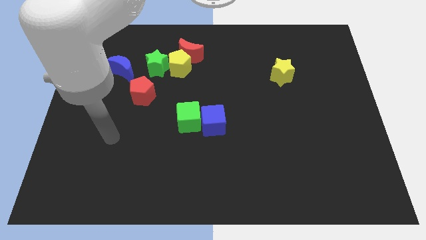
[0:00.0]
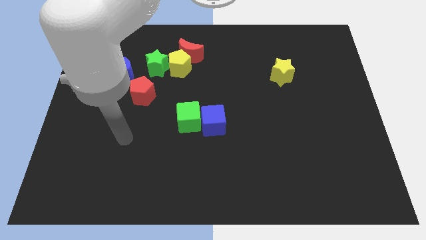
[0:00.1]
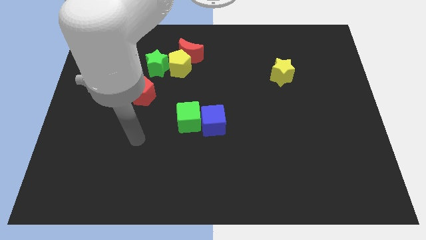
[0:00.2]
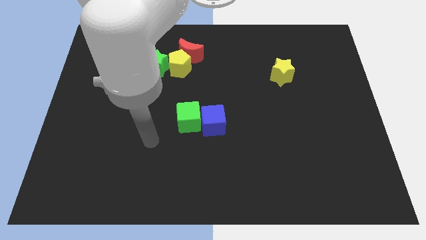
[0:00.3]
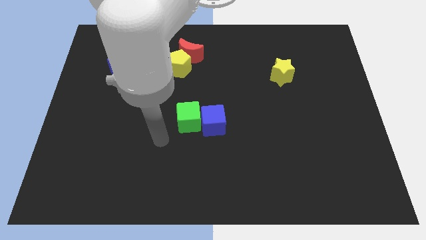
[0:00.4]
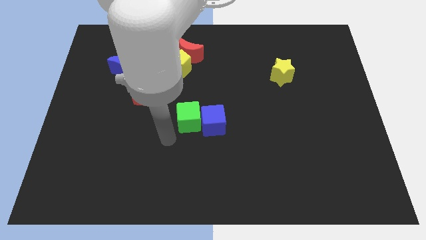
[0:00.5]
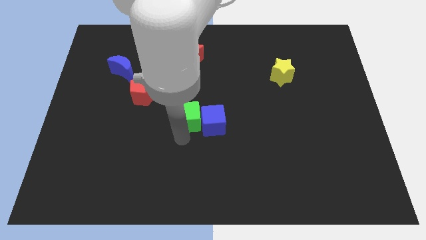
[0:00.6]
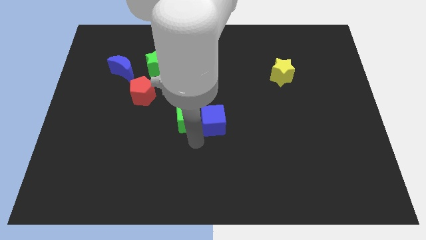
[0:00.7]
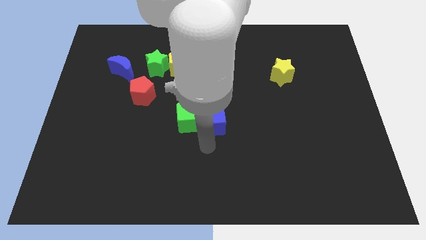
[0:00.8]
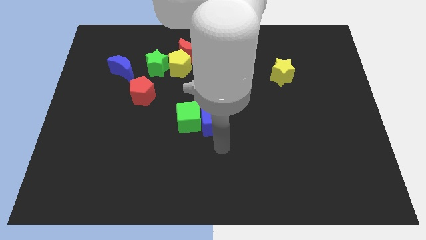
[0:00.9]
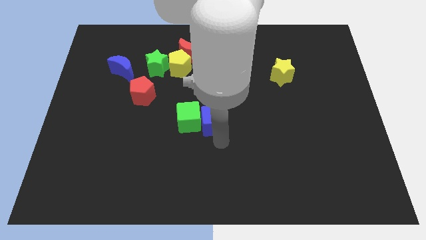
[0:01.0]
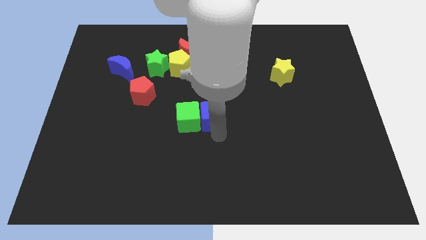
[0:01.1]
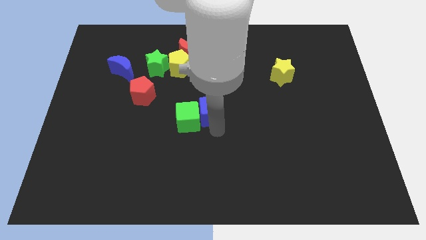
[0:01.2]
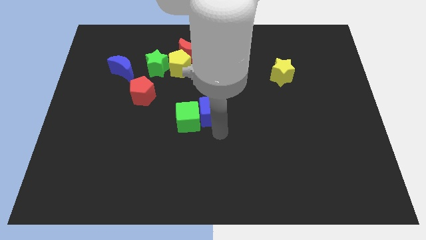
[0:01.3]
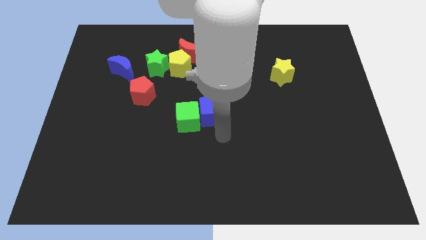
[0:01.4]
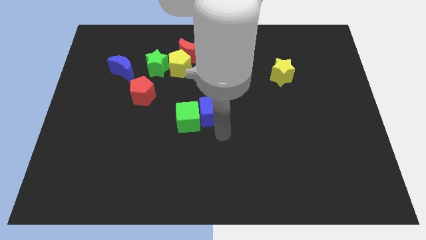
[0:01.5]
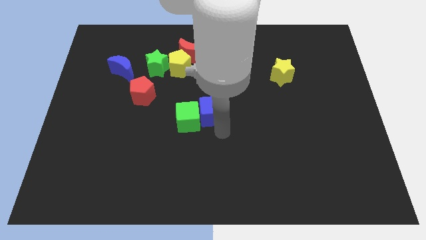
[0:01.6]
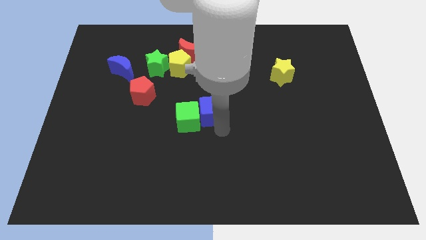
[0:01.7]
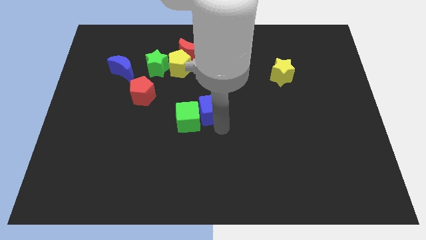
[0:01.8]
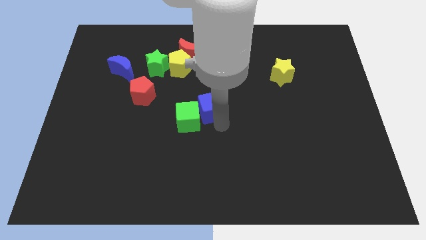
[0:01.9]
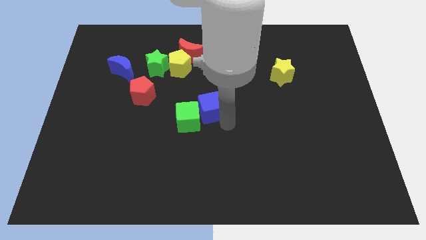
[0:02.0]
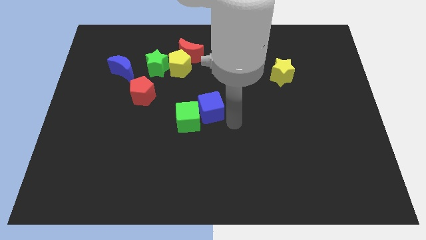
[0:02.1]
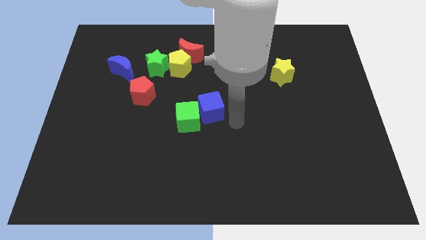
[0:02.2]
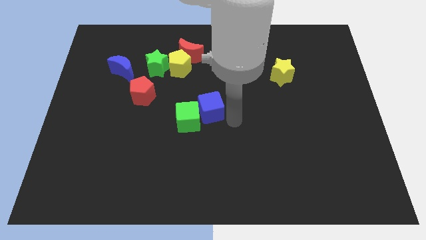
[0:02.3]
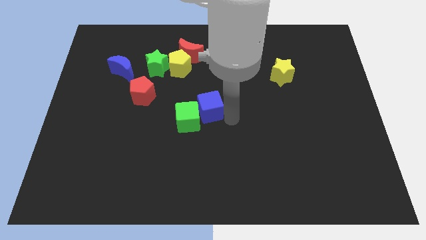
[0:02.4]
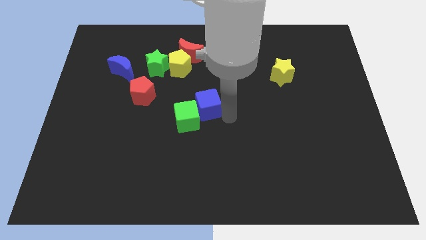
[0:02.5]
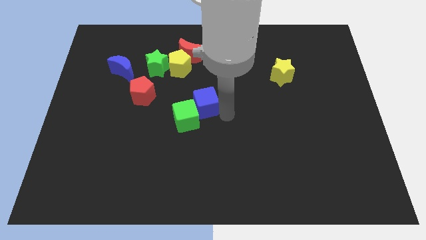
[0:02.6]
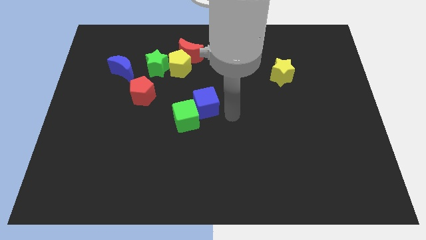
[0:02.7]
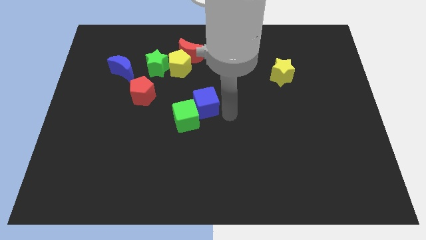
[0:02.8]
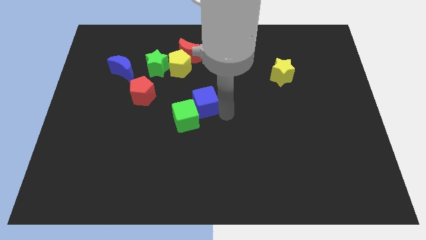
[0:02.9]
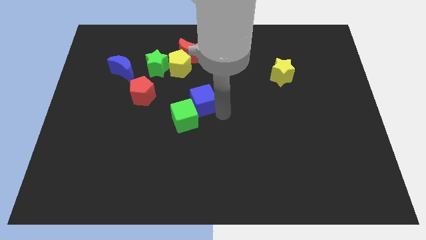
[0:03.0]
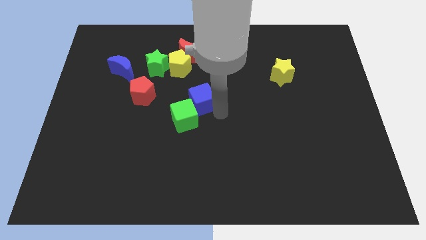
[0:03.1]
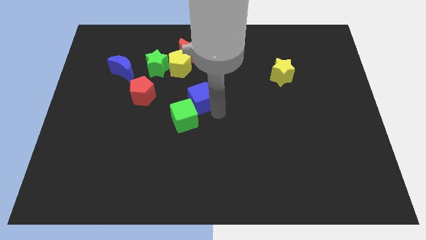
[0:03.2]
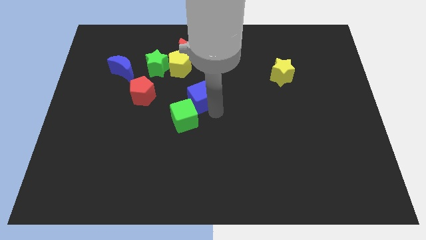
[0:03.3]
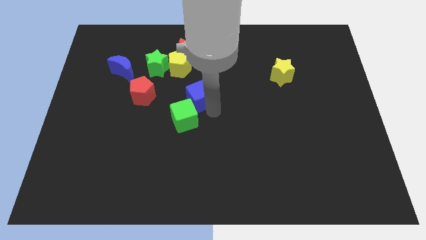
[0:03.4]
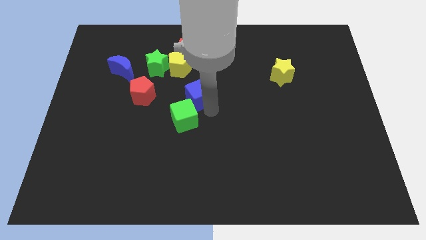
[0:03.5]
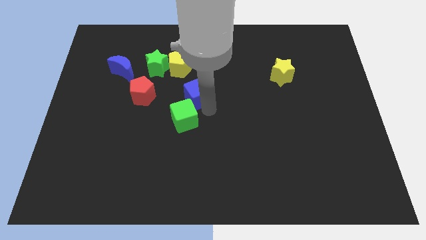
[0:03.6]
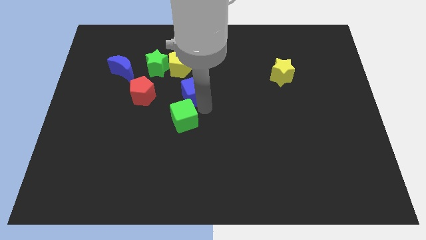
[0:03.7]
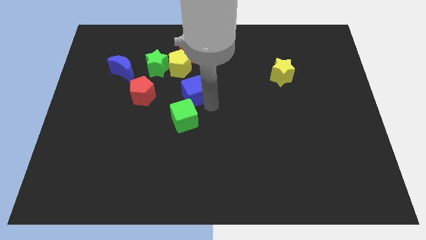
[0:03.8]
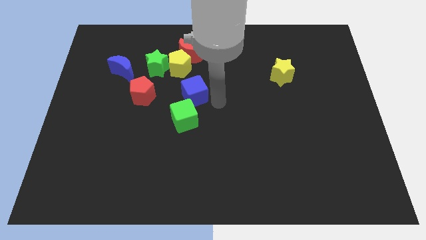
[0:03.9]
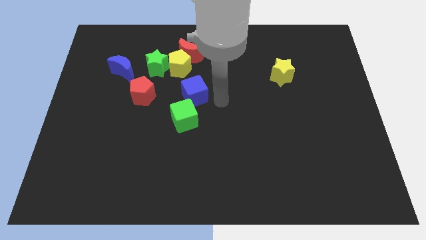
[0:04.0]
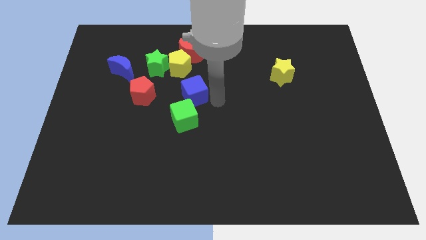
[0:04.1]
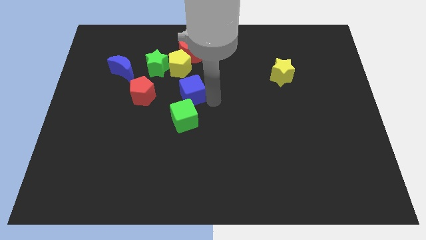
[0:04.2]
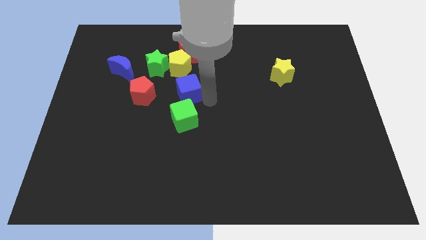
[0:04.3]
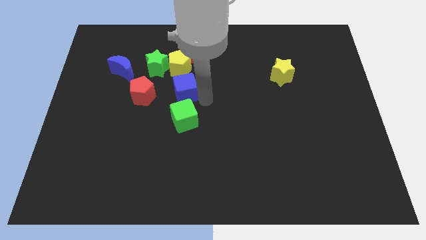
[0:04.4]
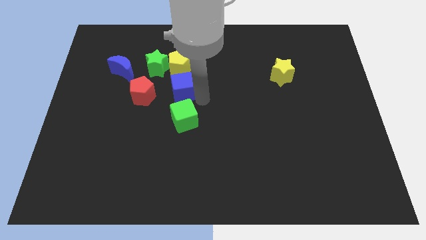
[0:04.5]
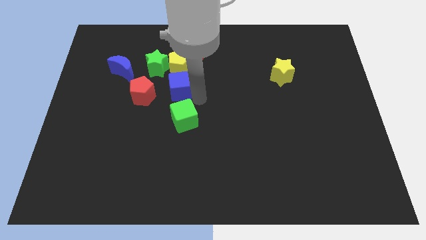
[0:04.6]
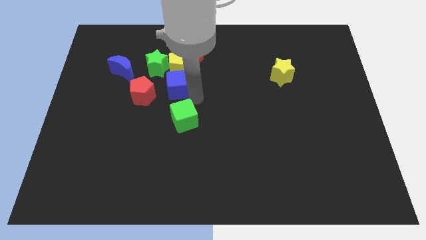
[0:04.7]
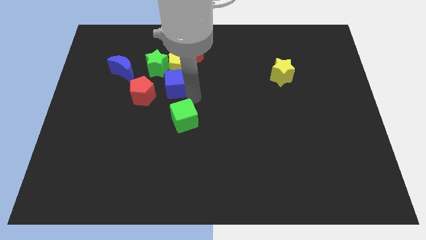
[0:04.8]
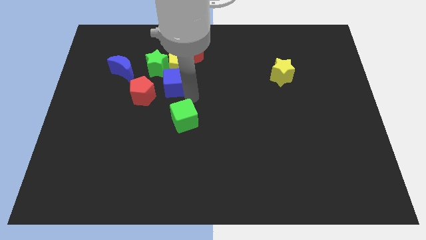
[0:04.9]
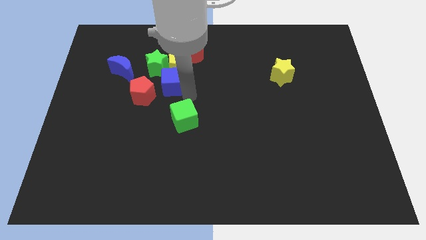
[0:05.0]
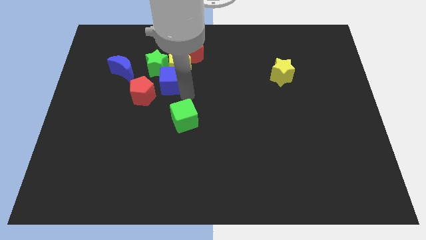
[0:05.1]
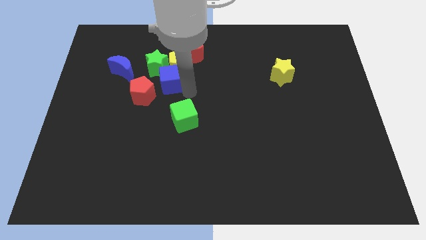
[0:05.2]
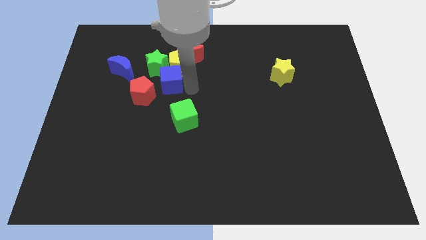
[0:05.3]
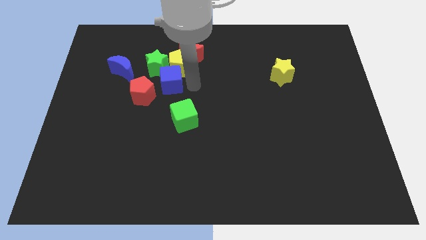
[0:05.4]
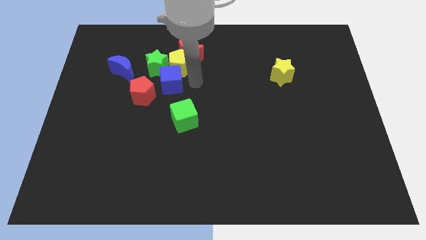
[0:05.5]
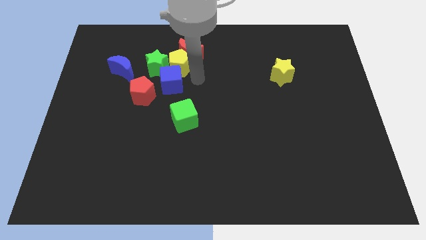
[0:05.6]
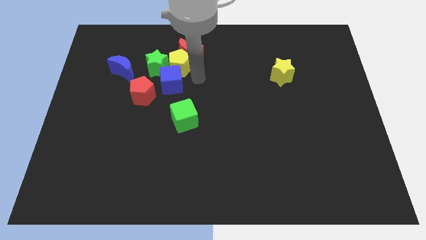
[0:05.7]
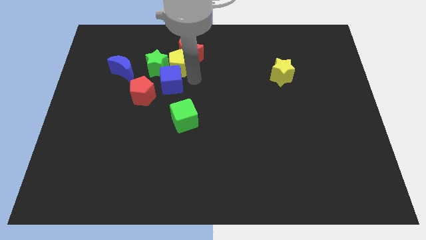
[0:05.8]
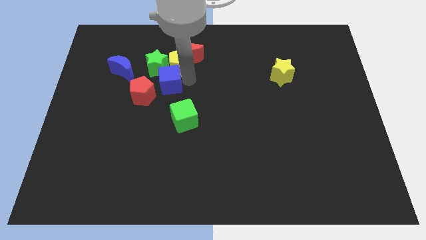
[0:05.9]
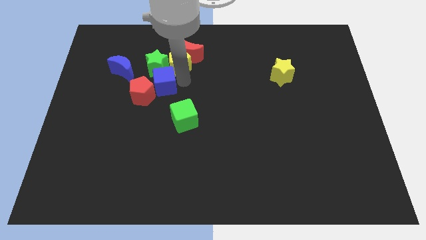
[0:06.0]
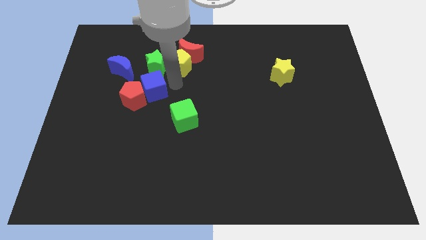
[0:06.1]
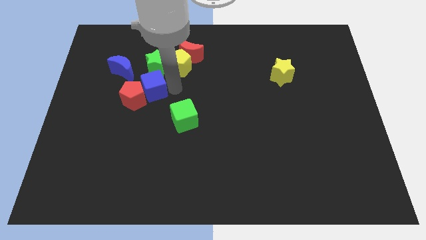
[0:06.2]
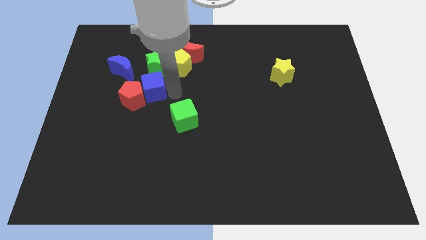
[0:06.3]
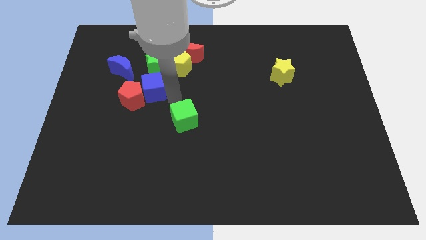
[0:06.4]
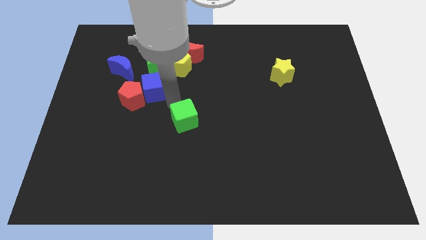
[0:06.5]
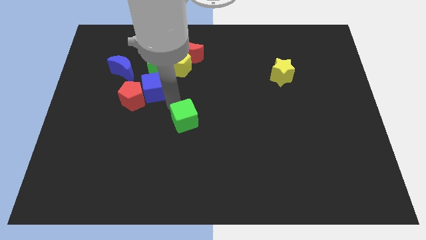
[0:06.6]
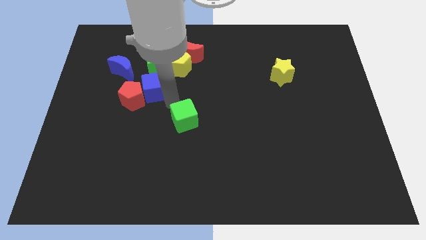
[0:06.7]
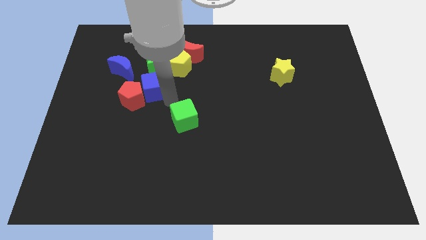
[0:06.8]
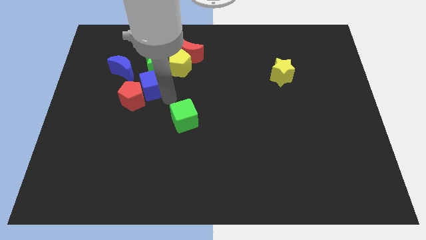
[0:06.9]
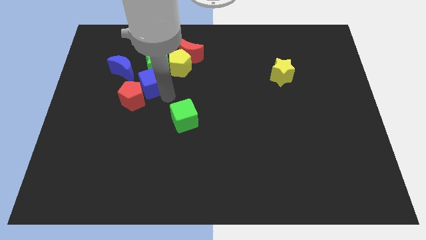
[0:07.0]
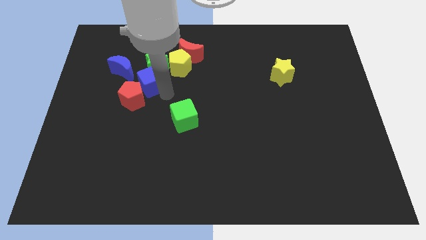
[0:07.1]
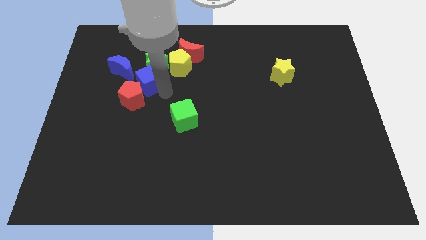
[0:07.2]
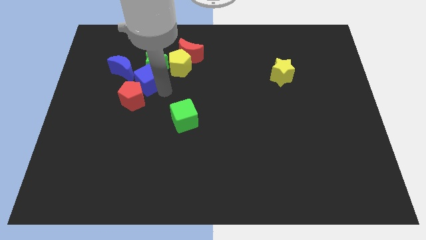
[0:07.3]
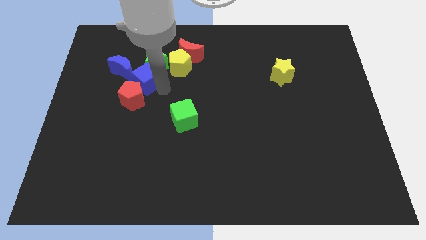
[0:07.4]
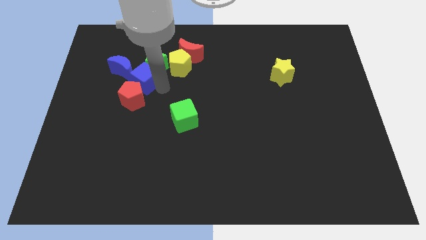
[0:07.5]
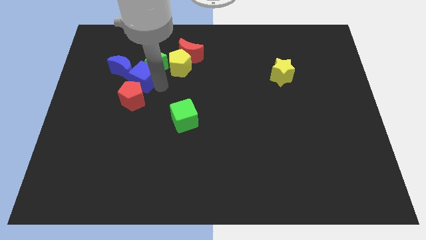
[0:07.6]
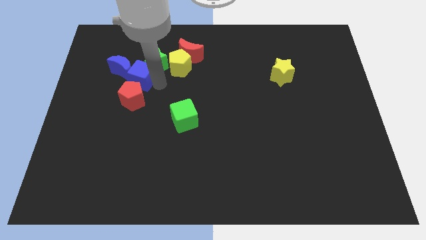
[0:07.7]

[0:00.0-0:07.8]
move the blue cube to the blue moon

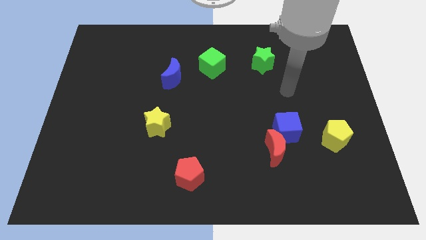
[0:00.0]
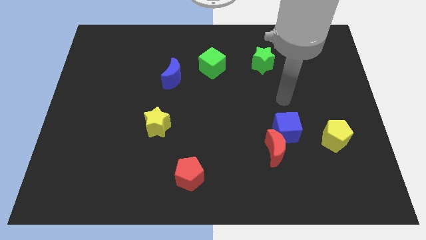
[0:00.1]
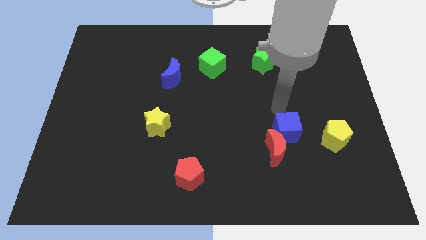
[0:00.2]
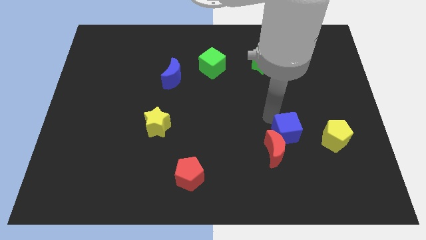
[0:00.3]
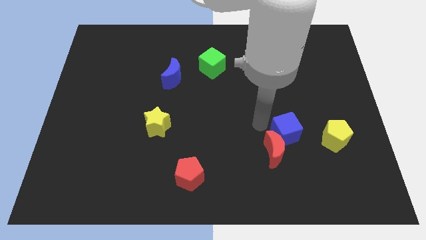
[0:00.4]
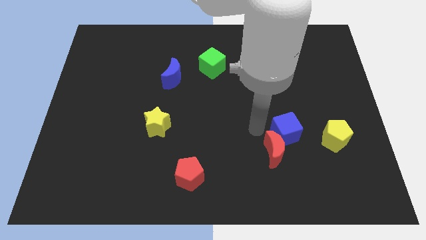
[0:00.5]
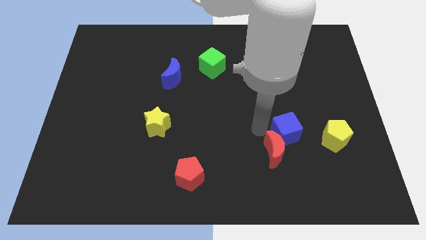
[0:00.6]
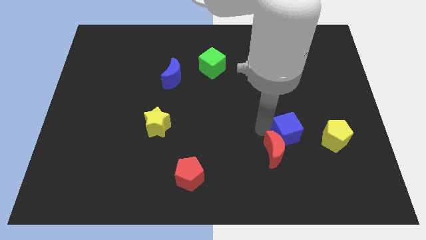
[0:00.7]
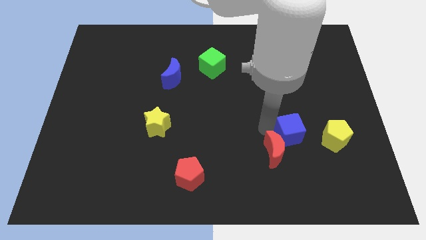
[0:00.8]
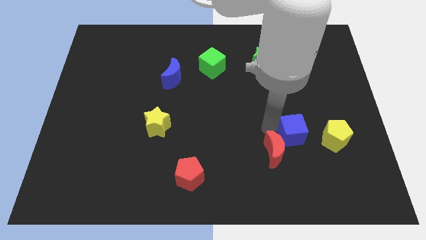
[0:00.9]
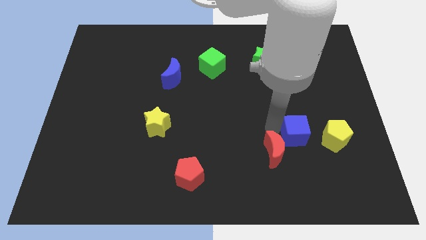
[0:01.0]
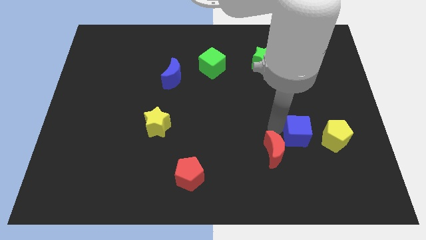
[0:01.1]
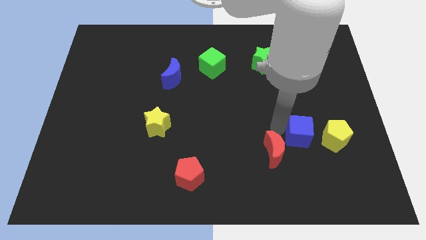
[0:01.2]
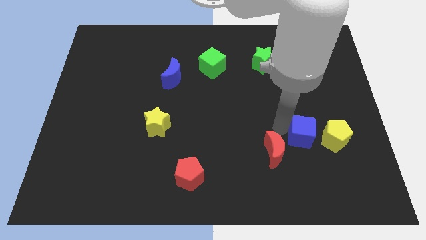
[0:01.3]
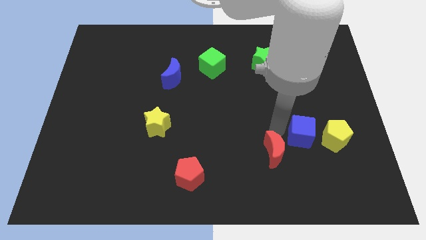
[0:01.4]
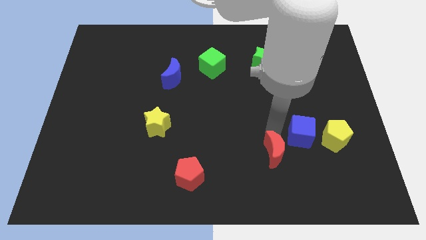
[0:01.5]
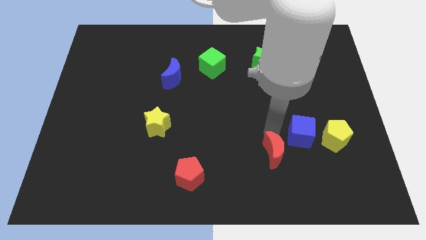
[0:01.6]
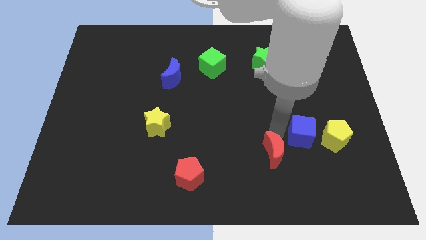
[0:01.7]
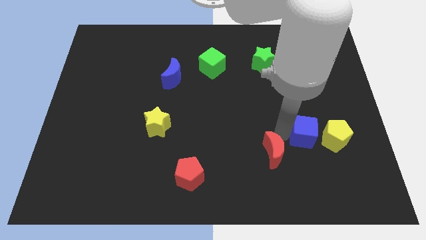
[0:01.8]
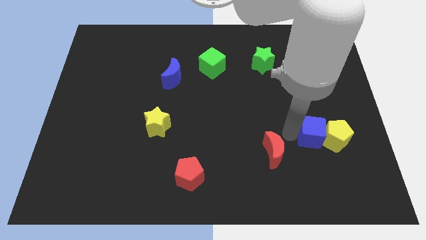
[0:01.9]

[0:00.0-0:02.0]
push the blue cube to the yellow pentagon
